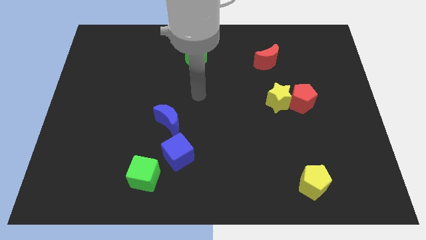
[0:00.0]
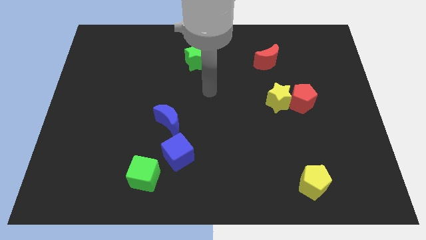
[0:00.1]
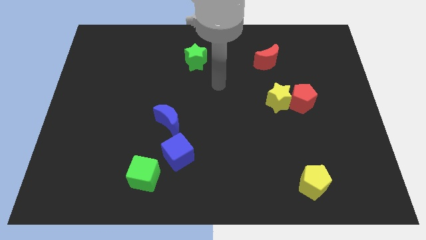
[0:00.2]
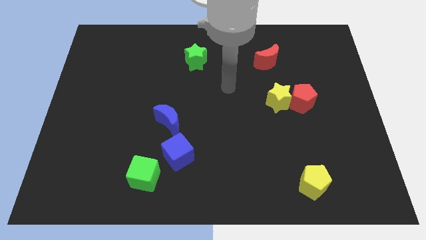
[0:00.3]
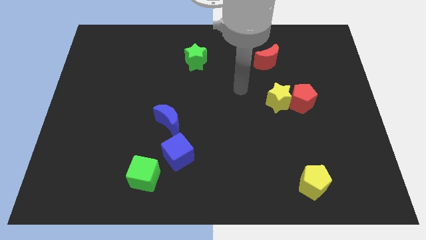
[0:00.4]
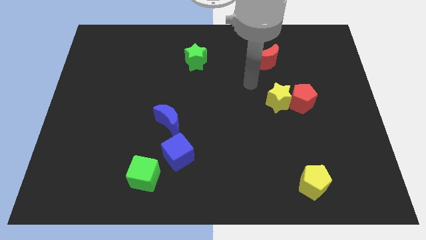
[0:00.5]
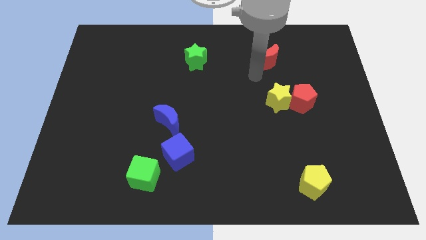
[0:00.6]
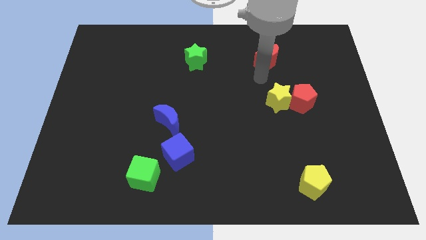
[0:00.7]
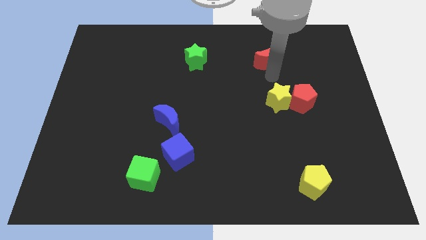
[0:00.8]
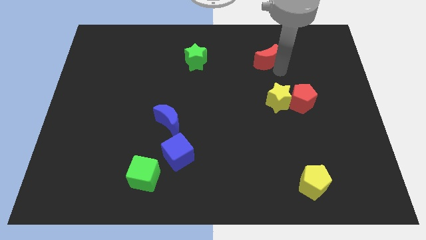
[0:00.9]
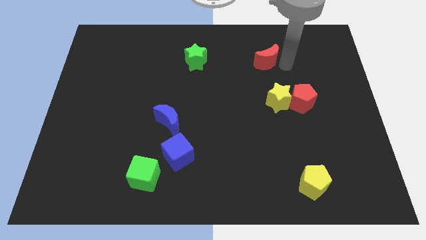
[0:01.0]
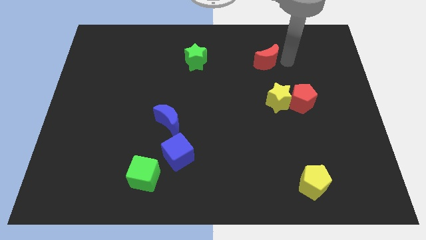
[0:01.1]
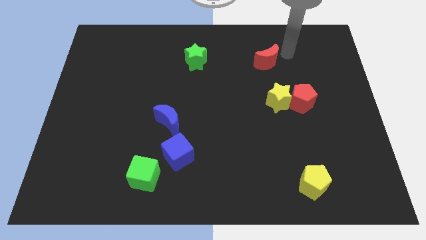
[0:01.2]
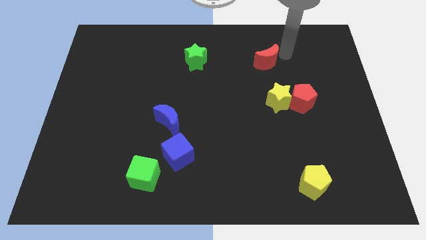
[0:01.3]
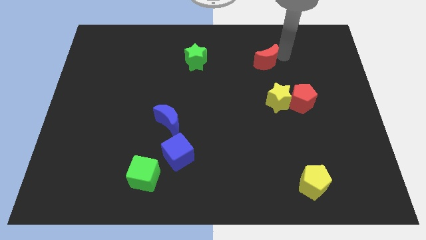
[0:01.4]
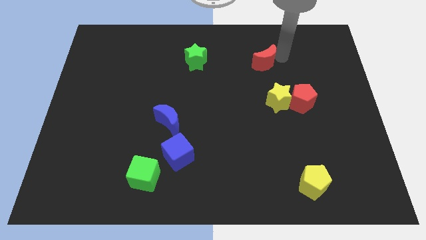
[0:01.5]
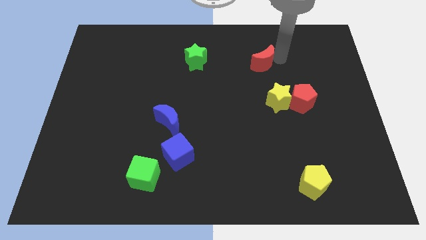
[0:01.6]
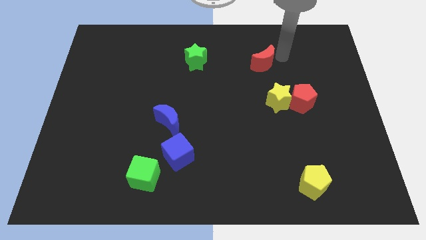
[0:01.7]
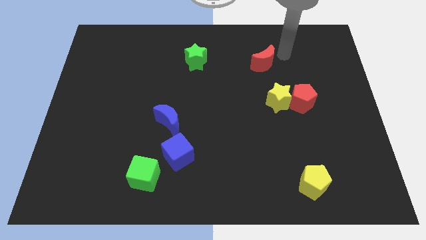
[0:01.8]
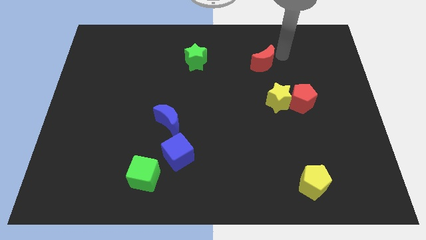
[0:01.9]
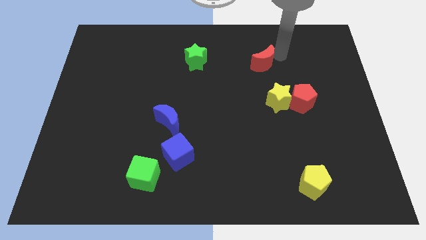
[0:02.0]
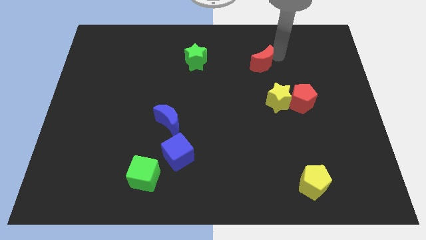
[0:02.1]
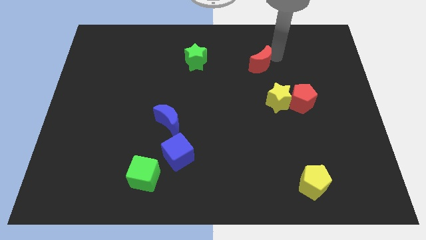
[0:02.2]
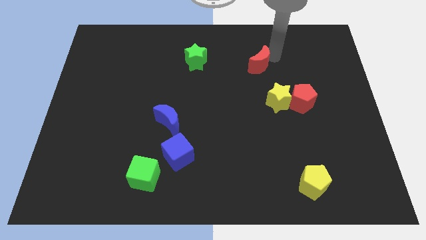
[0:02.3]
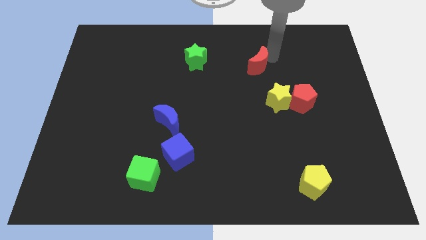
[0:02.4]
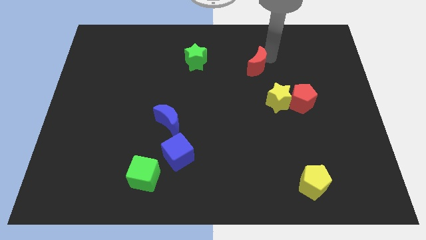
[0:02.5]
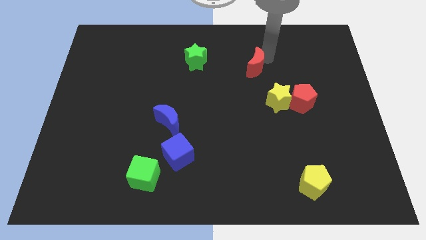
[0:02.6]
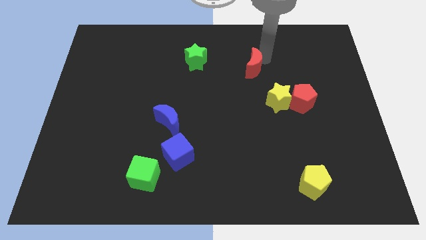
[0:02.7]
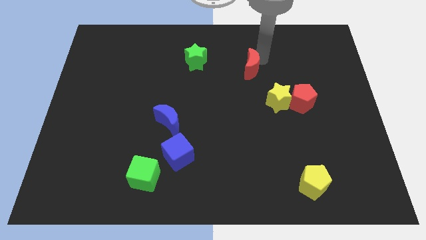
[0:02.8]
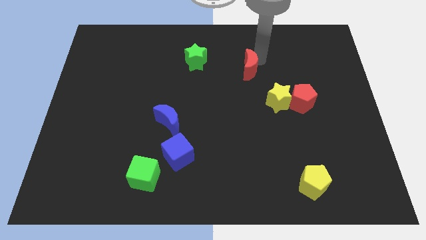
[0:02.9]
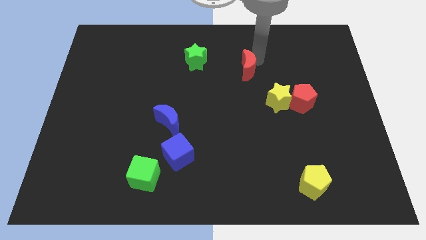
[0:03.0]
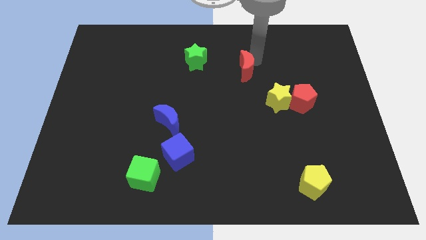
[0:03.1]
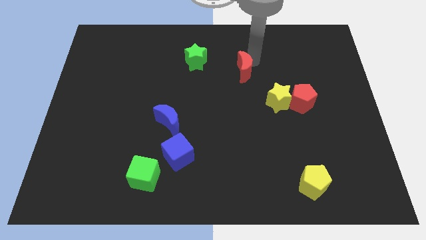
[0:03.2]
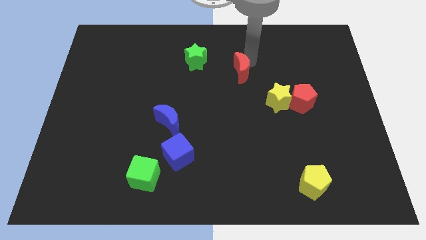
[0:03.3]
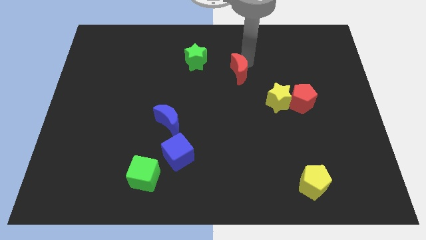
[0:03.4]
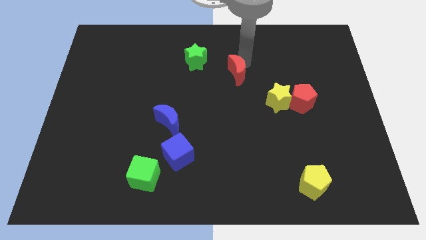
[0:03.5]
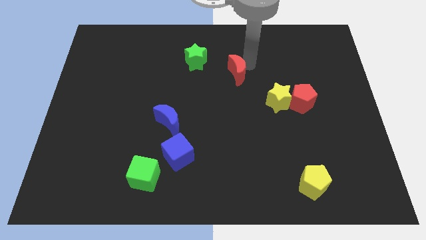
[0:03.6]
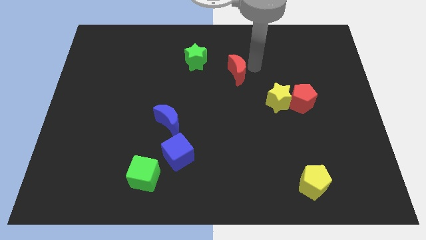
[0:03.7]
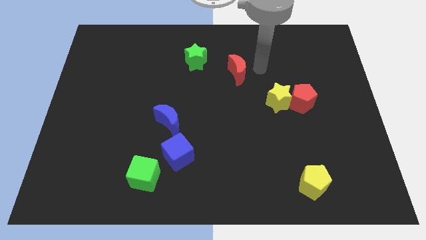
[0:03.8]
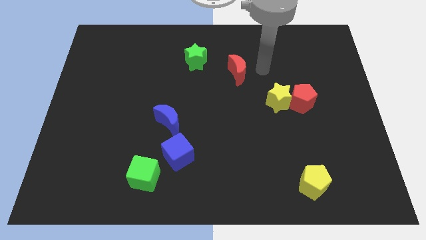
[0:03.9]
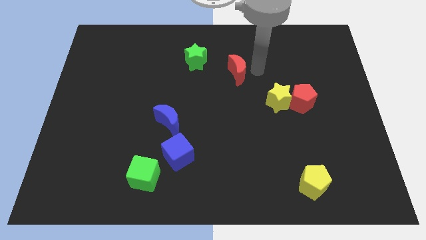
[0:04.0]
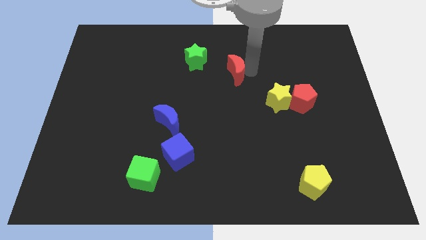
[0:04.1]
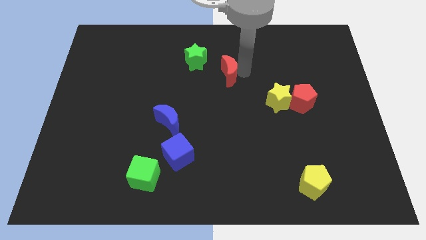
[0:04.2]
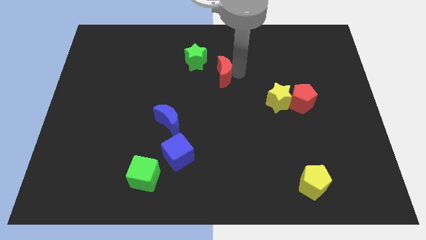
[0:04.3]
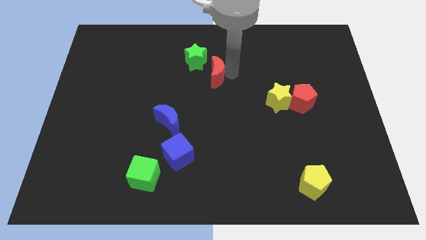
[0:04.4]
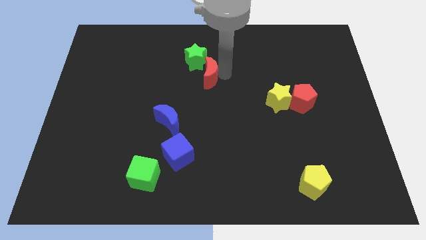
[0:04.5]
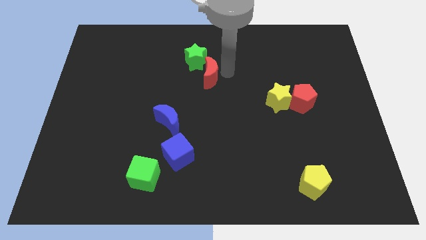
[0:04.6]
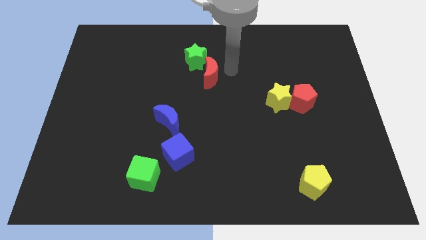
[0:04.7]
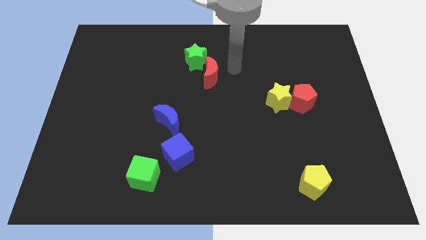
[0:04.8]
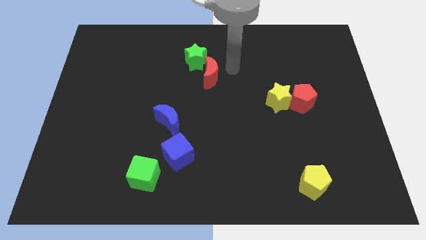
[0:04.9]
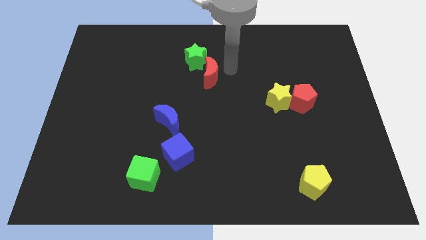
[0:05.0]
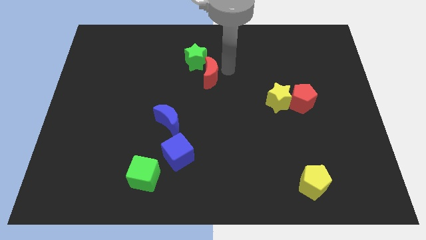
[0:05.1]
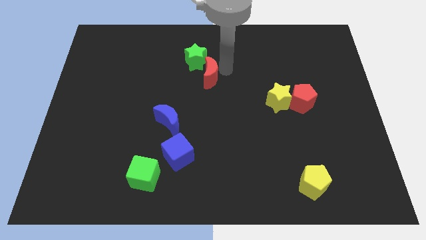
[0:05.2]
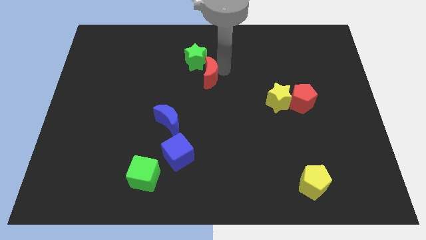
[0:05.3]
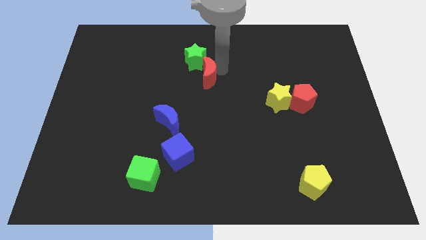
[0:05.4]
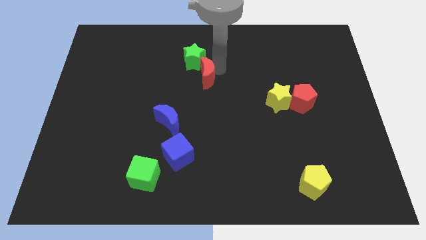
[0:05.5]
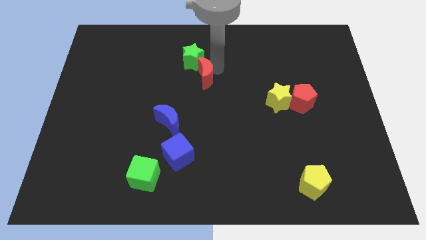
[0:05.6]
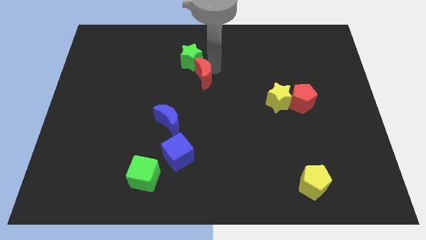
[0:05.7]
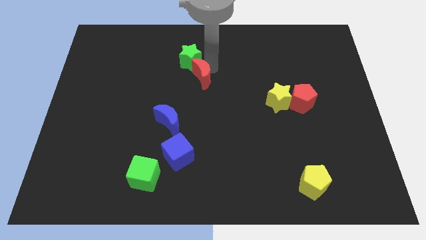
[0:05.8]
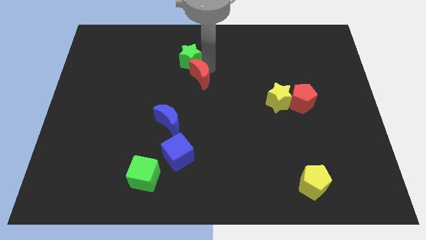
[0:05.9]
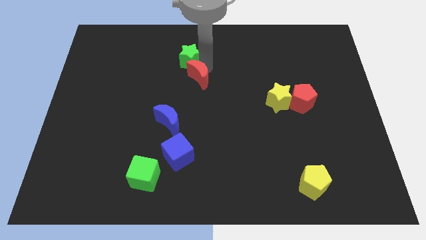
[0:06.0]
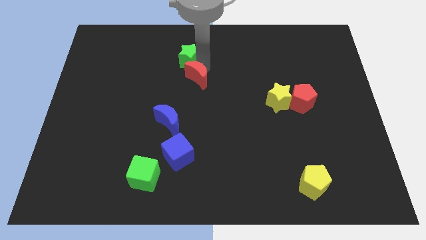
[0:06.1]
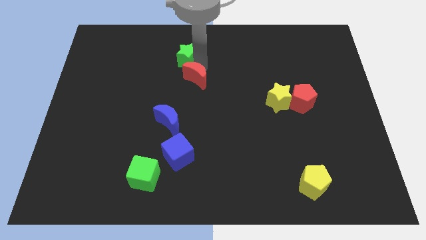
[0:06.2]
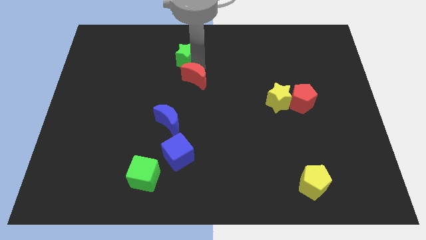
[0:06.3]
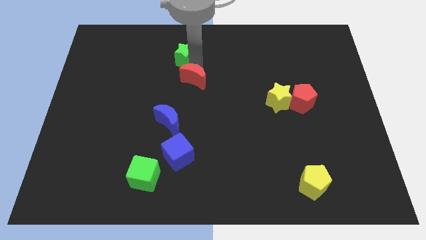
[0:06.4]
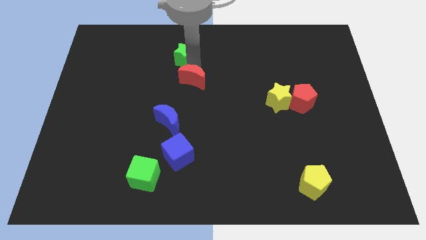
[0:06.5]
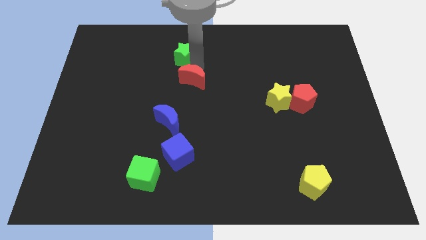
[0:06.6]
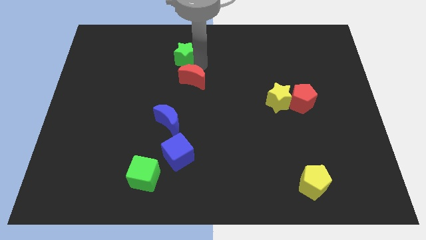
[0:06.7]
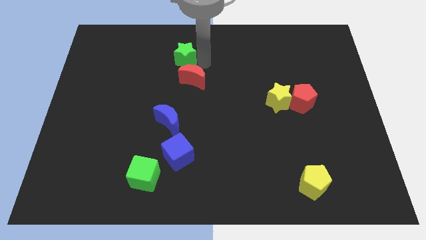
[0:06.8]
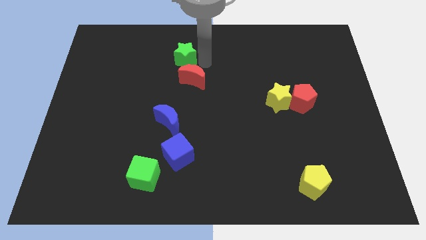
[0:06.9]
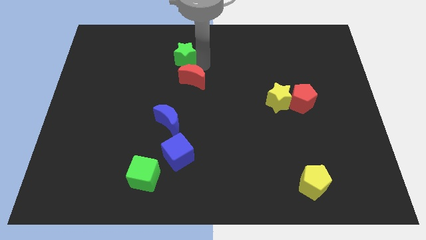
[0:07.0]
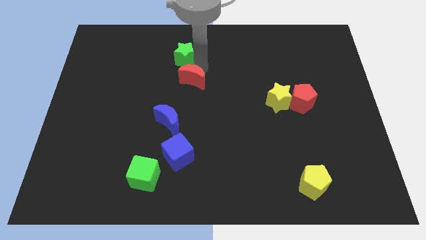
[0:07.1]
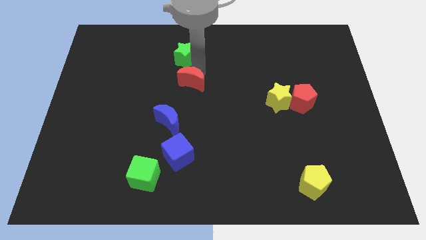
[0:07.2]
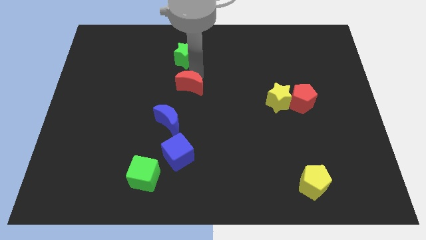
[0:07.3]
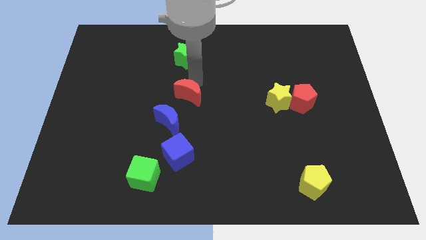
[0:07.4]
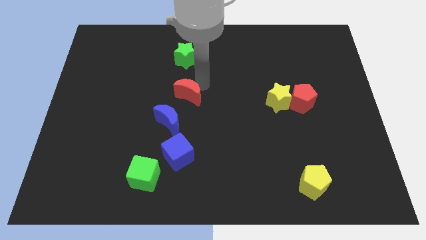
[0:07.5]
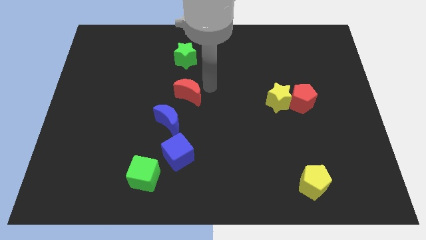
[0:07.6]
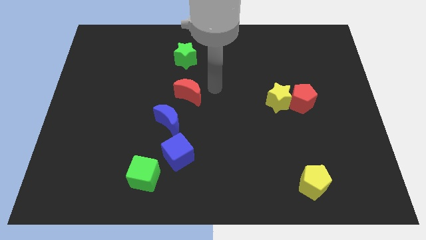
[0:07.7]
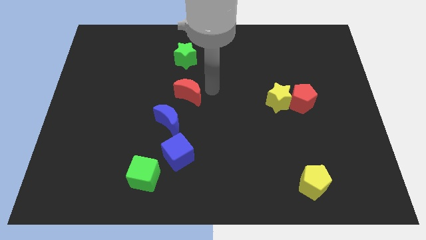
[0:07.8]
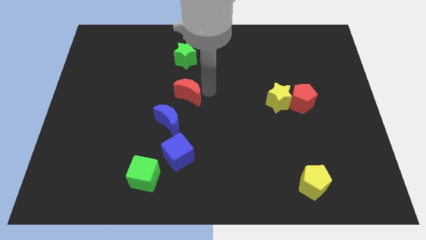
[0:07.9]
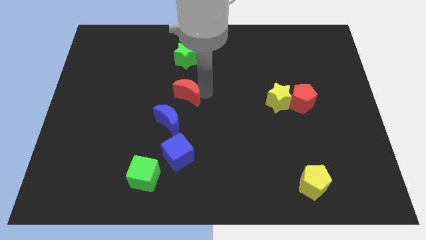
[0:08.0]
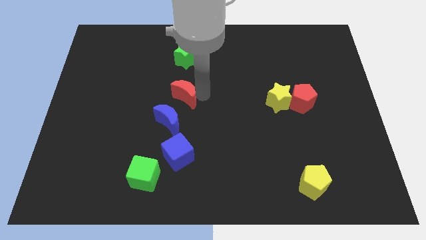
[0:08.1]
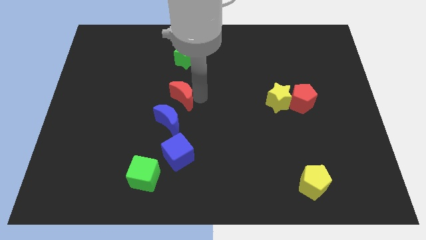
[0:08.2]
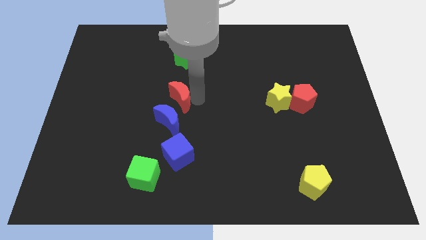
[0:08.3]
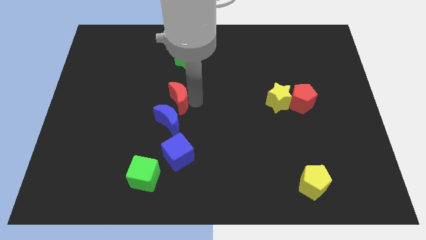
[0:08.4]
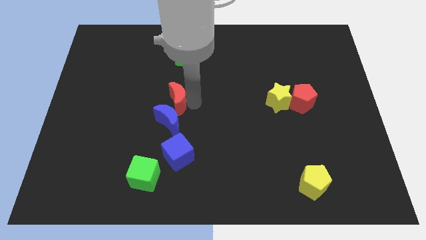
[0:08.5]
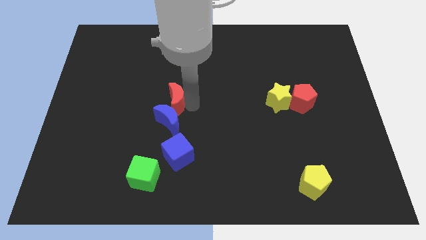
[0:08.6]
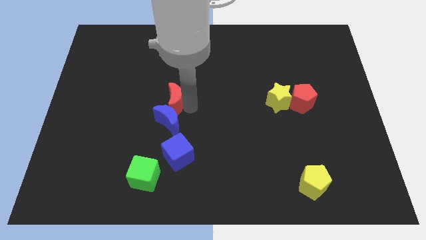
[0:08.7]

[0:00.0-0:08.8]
put the red moon diagonally up and to the left of the blue moon
